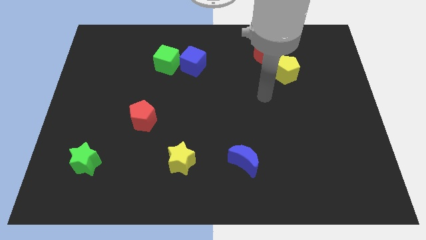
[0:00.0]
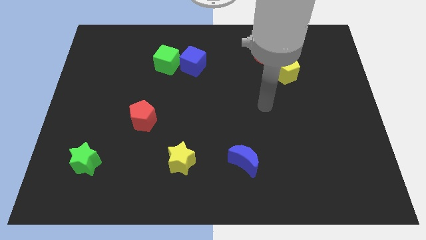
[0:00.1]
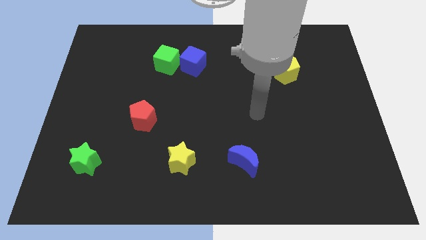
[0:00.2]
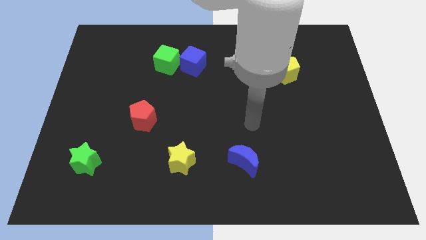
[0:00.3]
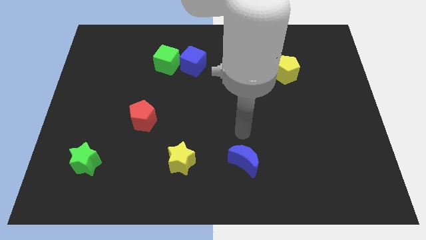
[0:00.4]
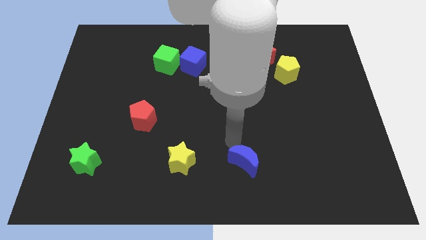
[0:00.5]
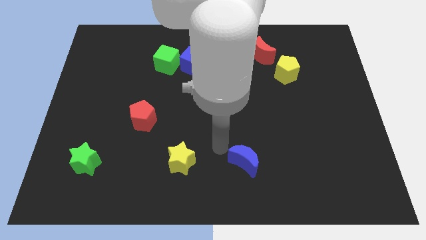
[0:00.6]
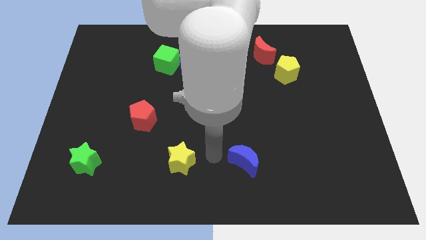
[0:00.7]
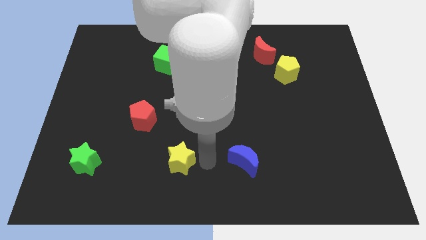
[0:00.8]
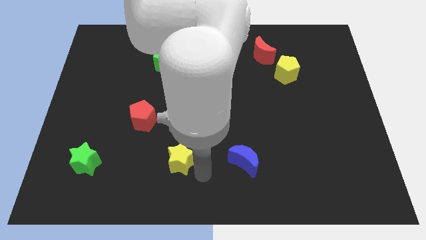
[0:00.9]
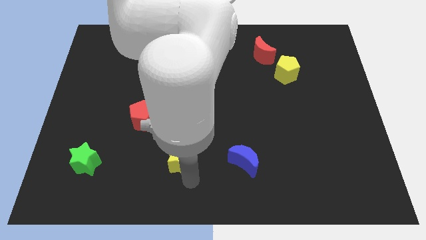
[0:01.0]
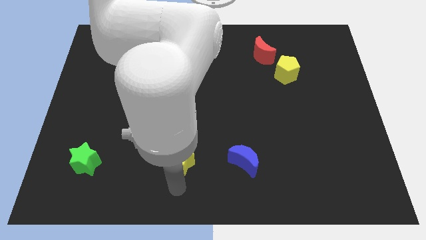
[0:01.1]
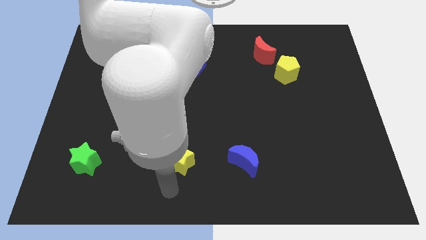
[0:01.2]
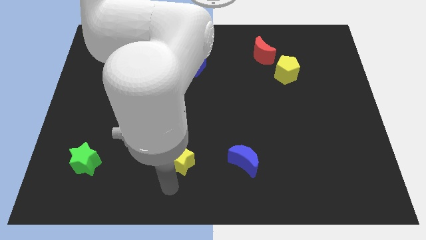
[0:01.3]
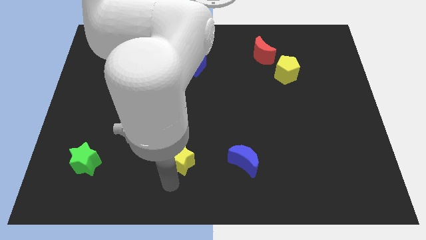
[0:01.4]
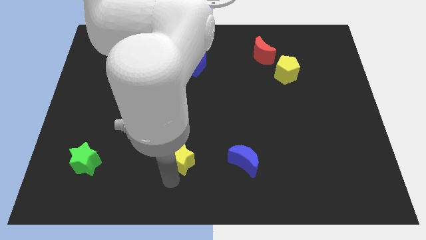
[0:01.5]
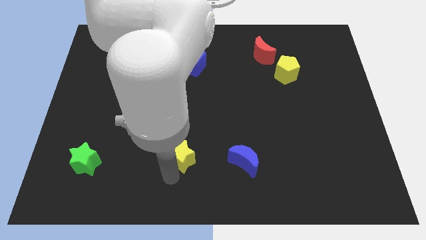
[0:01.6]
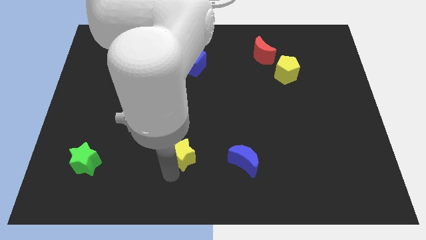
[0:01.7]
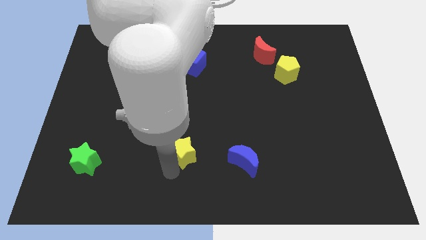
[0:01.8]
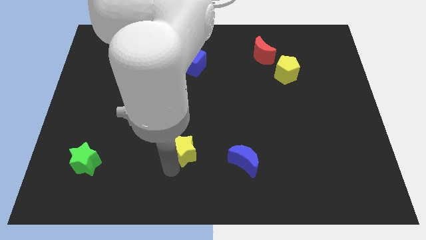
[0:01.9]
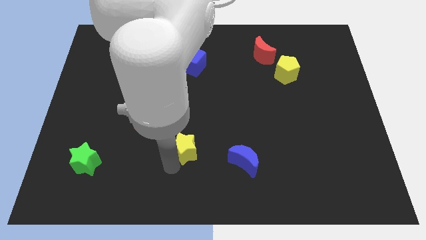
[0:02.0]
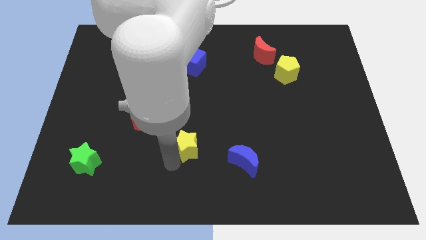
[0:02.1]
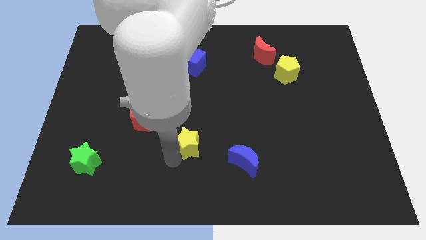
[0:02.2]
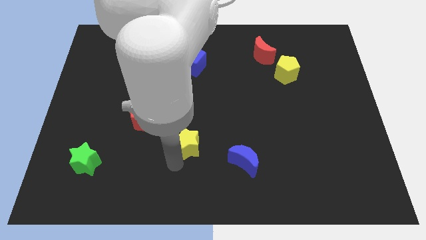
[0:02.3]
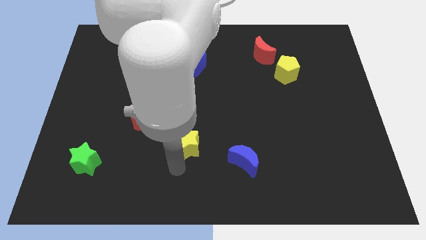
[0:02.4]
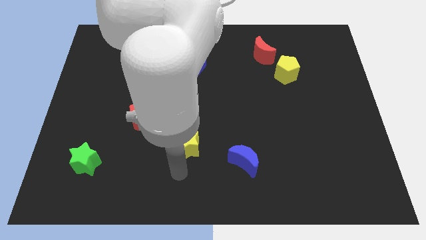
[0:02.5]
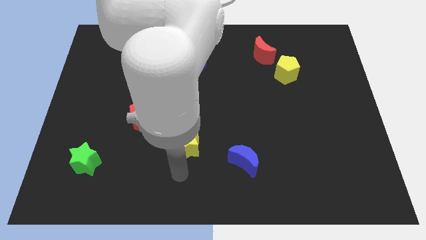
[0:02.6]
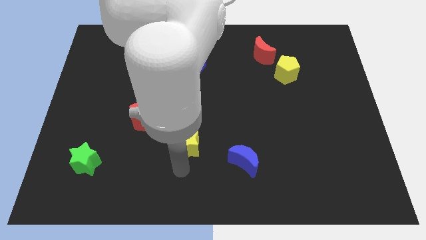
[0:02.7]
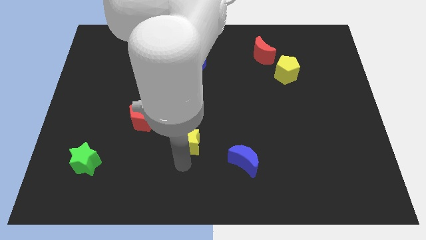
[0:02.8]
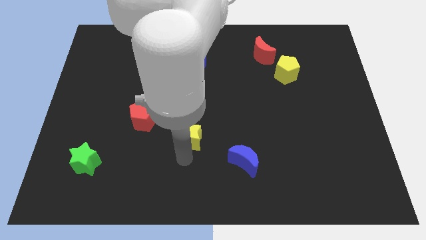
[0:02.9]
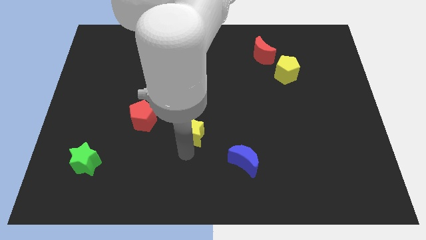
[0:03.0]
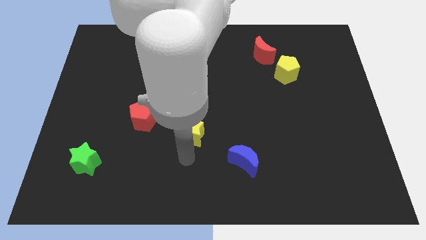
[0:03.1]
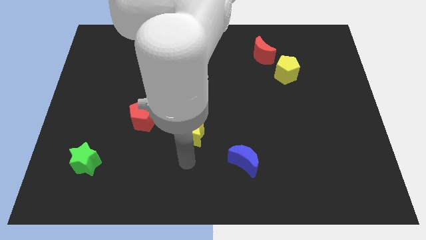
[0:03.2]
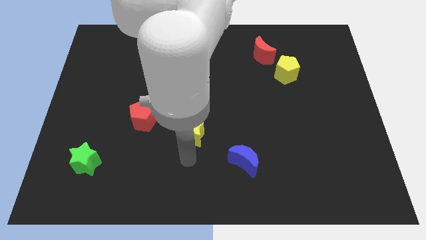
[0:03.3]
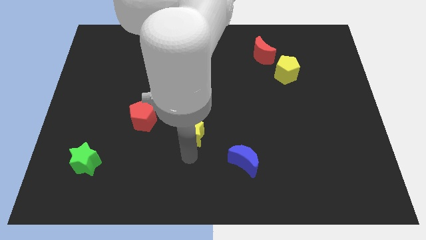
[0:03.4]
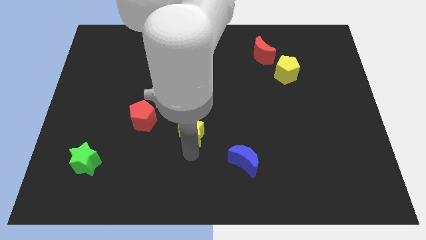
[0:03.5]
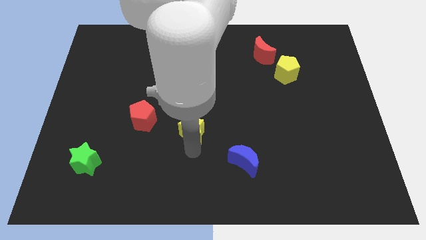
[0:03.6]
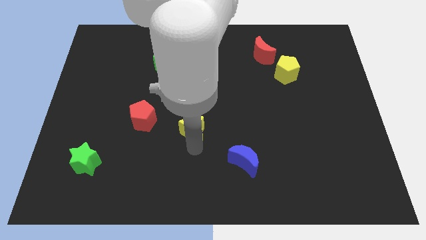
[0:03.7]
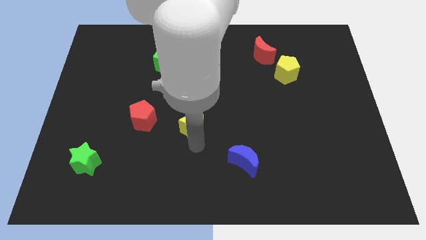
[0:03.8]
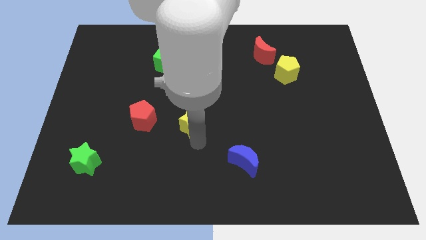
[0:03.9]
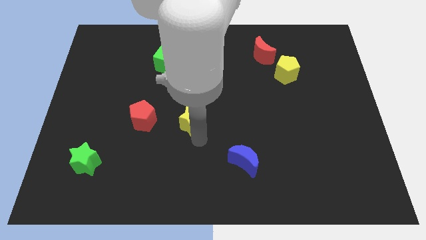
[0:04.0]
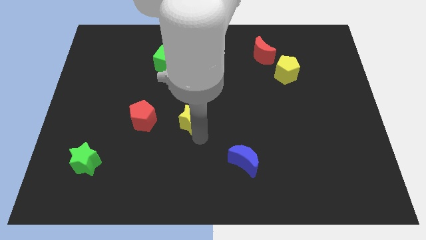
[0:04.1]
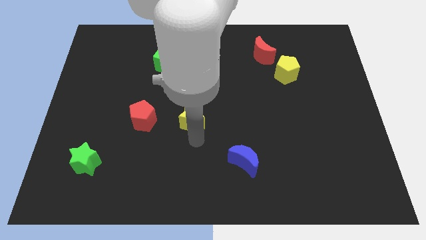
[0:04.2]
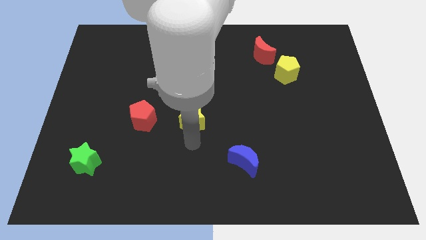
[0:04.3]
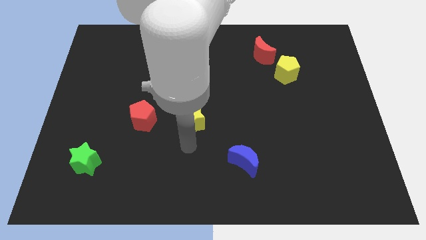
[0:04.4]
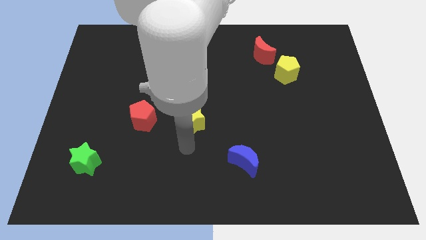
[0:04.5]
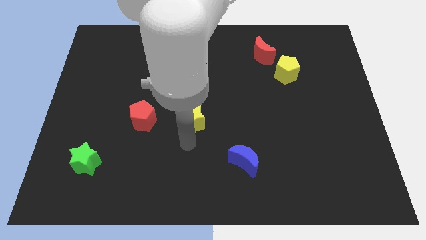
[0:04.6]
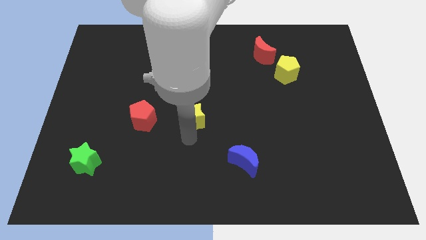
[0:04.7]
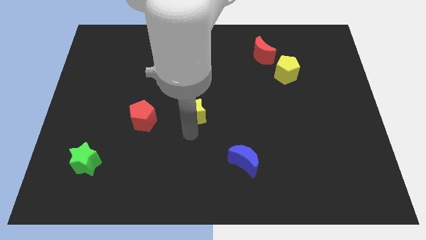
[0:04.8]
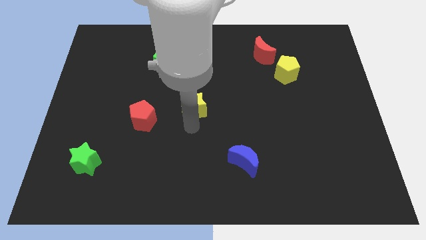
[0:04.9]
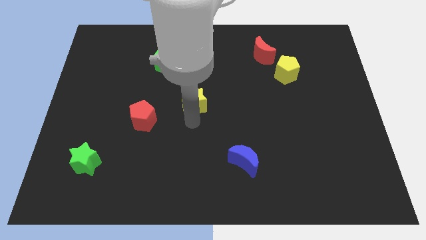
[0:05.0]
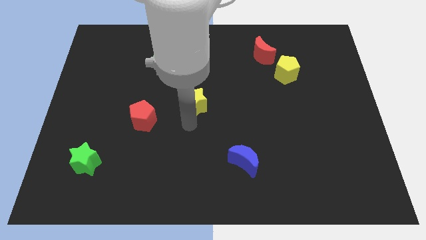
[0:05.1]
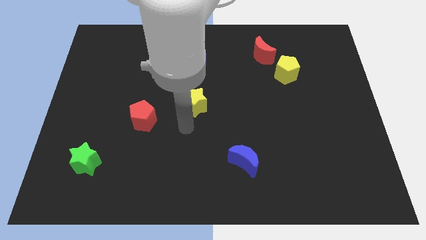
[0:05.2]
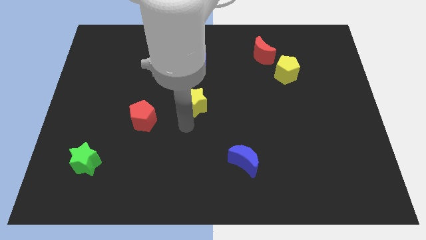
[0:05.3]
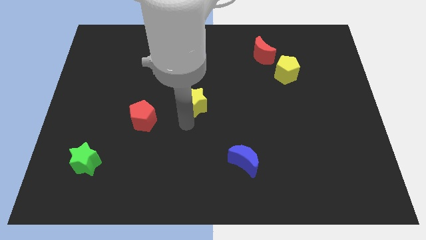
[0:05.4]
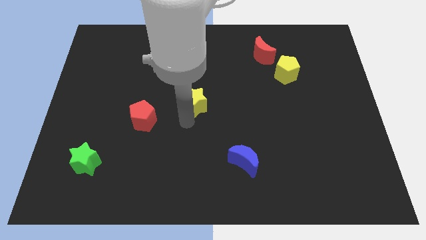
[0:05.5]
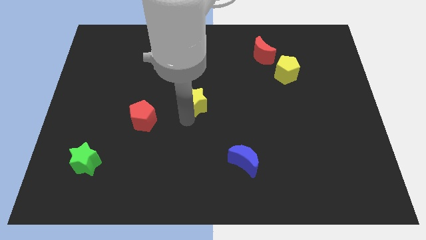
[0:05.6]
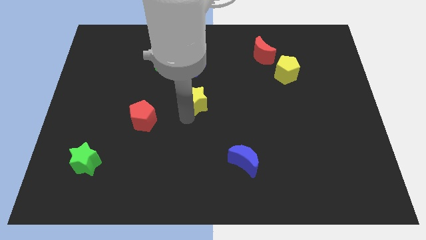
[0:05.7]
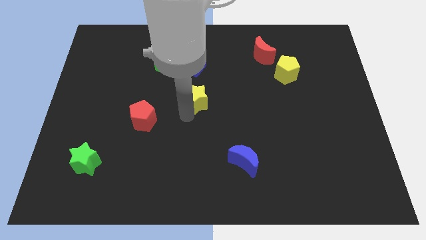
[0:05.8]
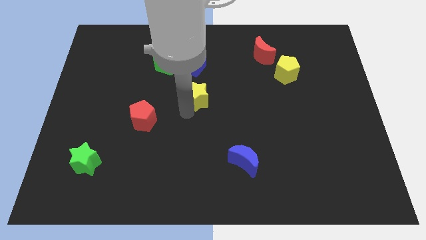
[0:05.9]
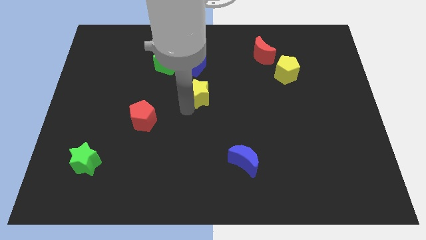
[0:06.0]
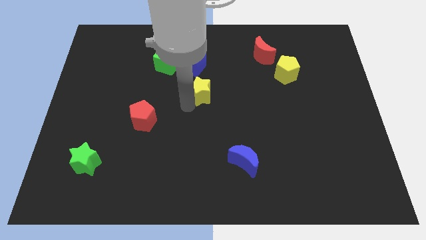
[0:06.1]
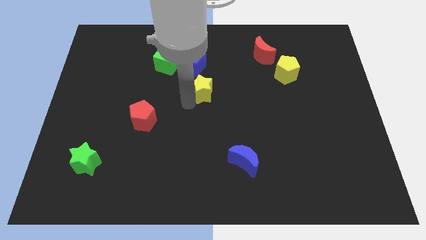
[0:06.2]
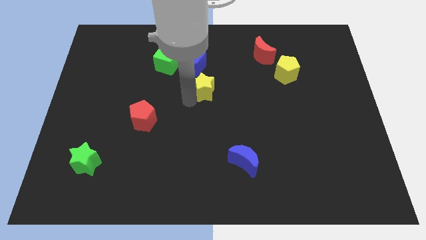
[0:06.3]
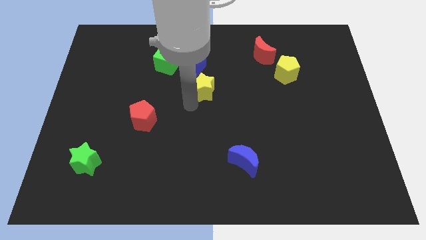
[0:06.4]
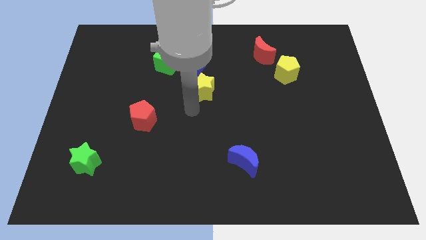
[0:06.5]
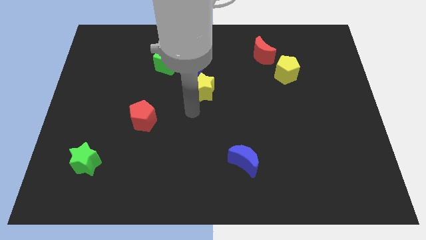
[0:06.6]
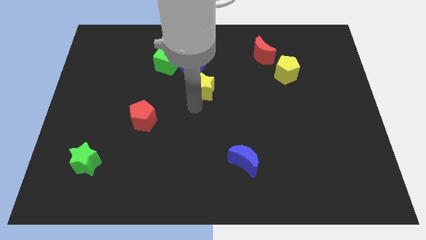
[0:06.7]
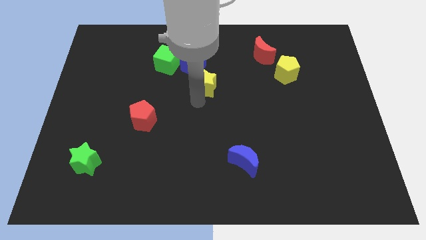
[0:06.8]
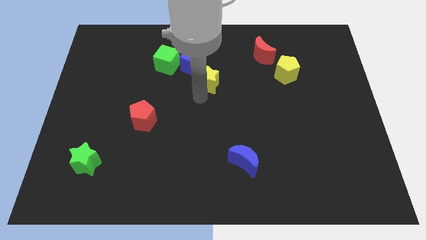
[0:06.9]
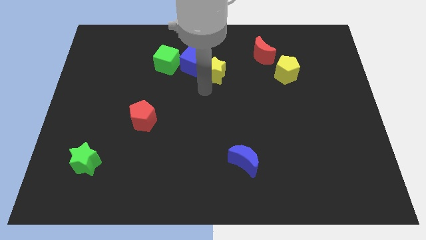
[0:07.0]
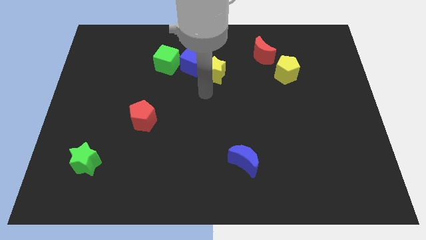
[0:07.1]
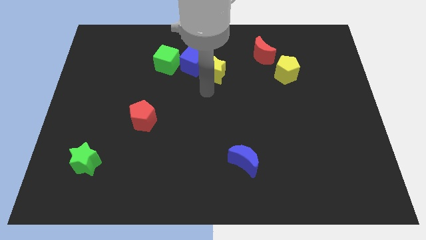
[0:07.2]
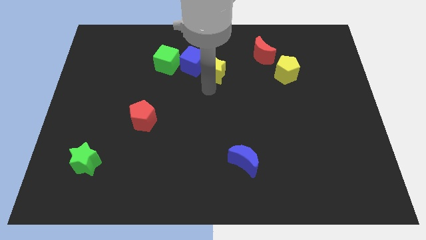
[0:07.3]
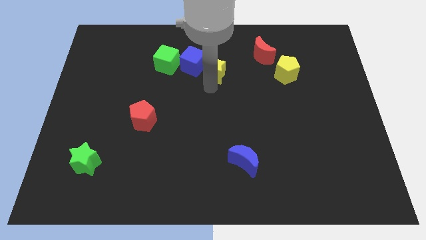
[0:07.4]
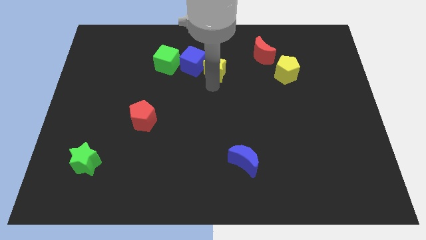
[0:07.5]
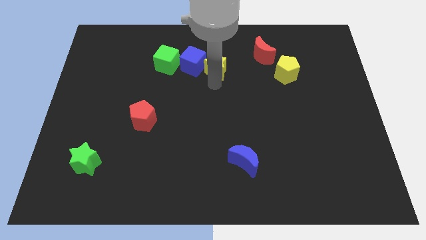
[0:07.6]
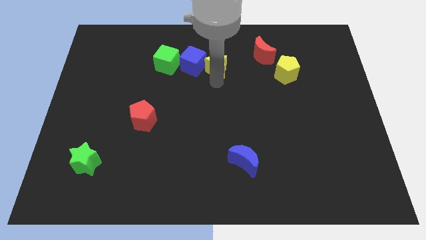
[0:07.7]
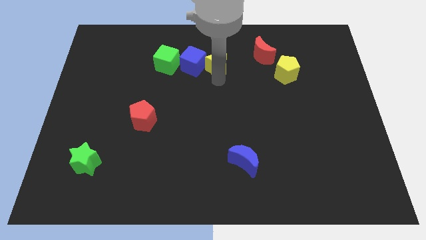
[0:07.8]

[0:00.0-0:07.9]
put the yellow star left of the red moon
